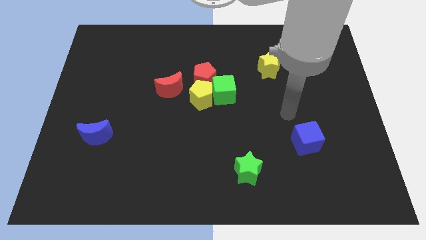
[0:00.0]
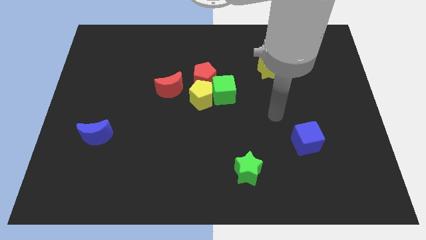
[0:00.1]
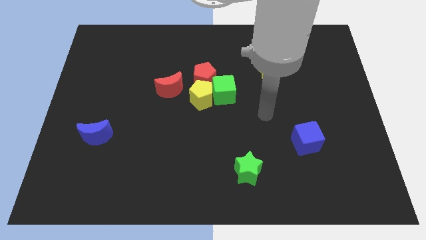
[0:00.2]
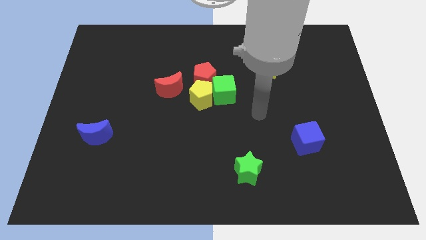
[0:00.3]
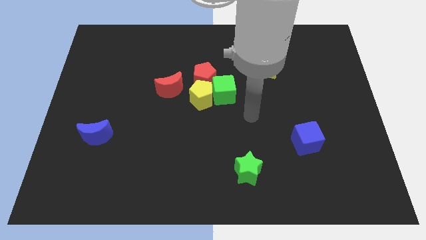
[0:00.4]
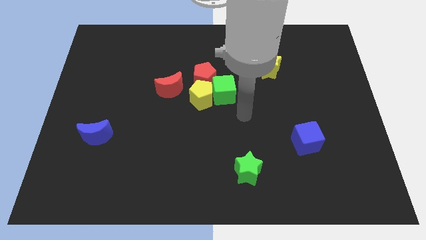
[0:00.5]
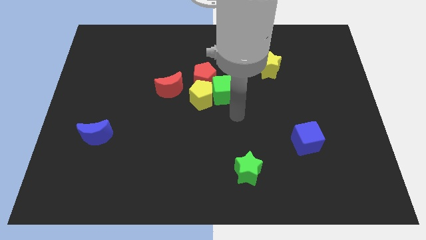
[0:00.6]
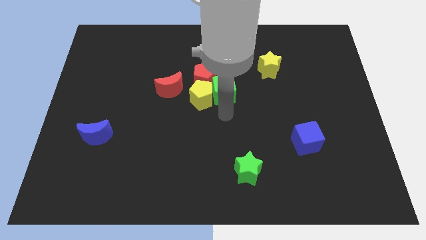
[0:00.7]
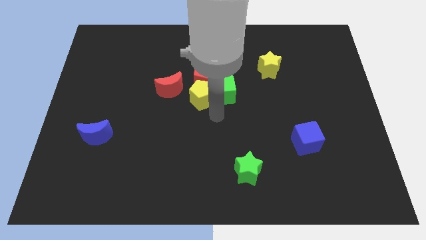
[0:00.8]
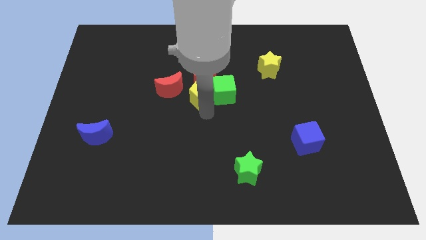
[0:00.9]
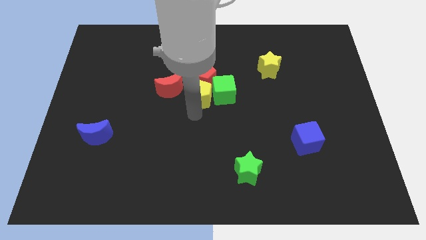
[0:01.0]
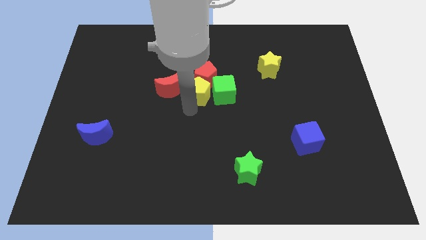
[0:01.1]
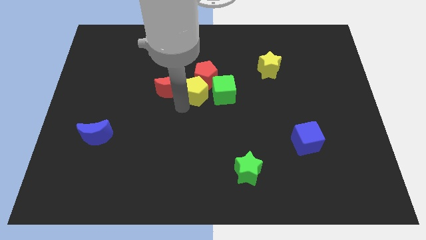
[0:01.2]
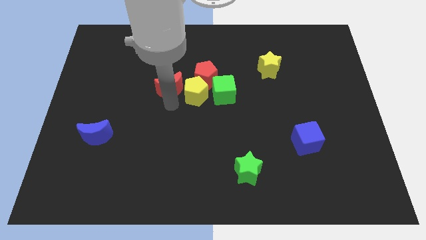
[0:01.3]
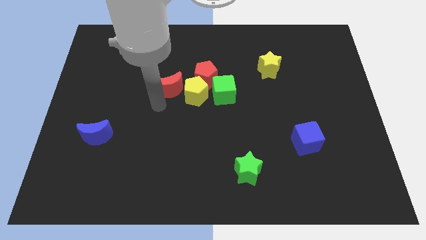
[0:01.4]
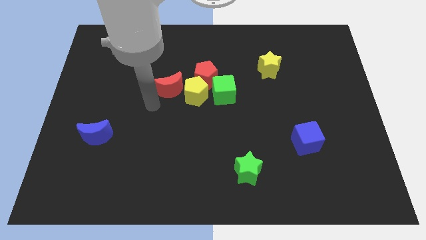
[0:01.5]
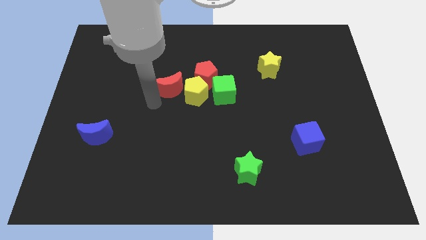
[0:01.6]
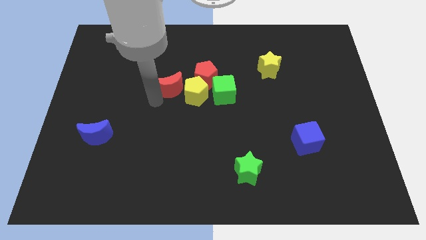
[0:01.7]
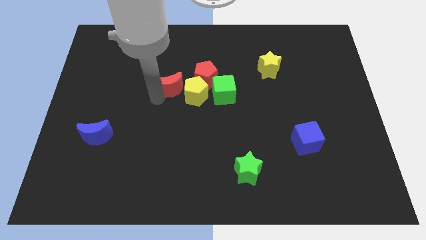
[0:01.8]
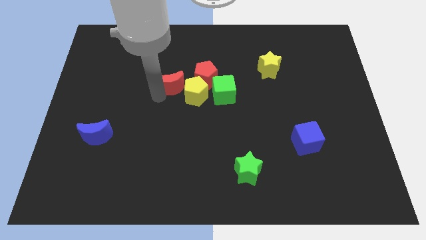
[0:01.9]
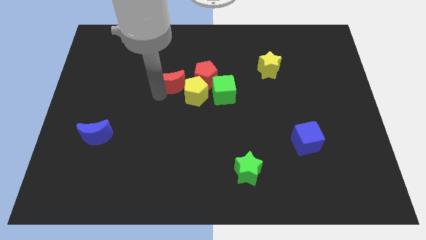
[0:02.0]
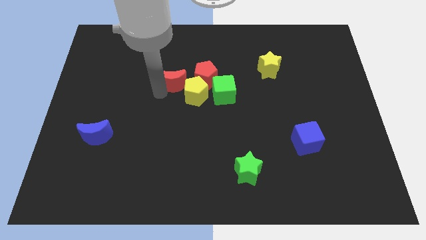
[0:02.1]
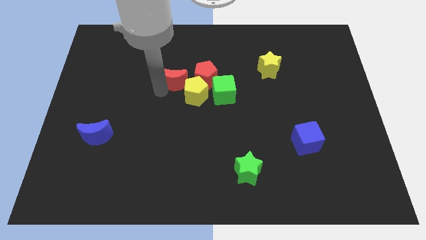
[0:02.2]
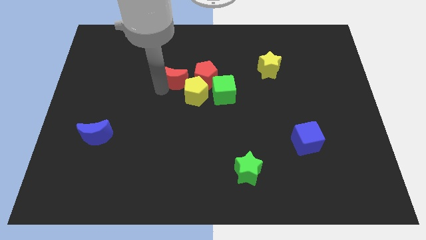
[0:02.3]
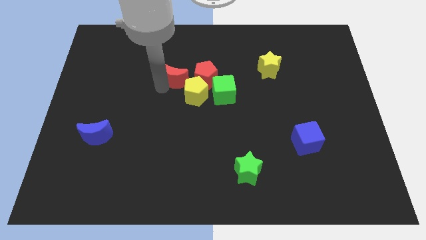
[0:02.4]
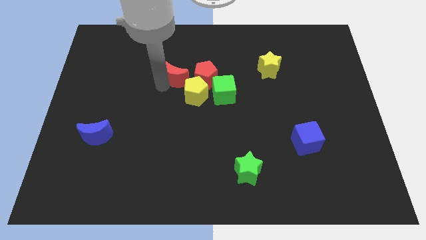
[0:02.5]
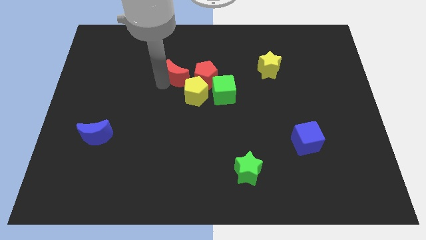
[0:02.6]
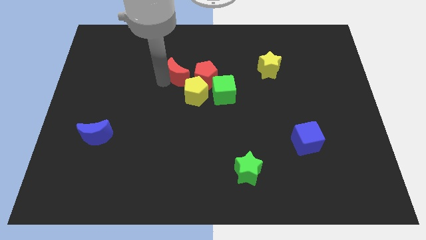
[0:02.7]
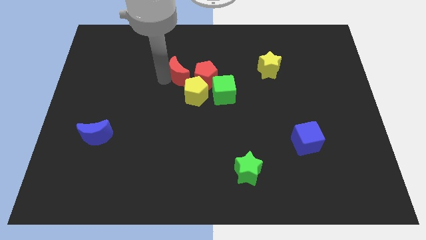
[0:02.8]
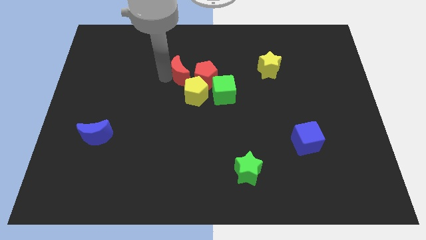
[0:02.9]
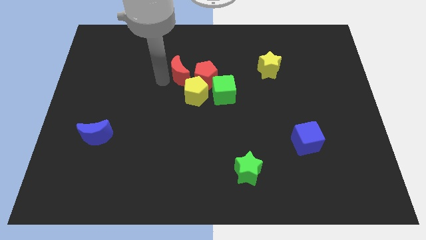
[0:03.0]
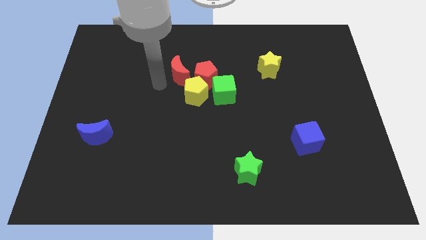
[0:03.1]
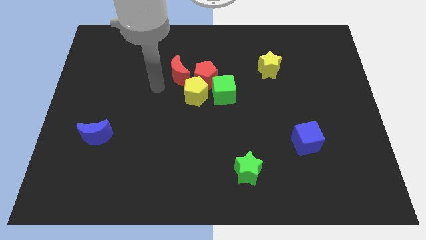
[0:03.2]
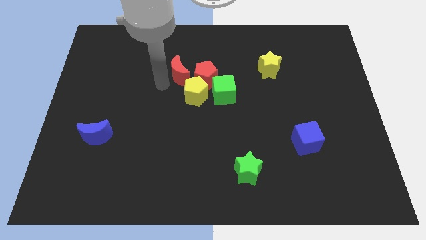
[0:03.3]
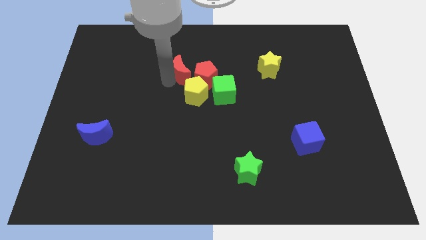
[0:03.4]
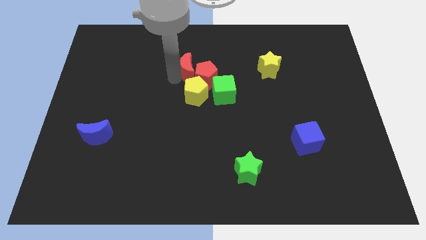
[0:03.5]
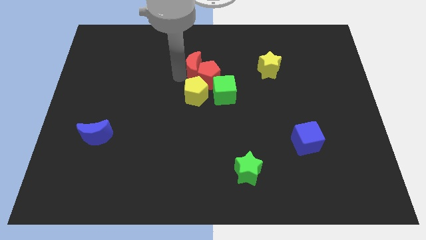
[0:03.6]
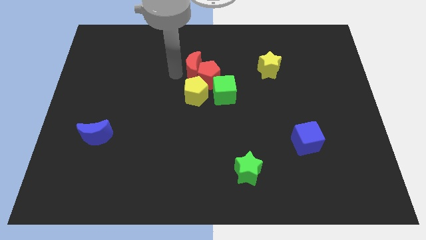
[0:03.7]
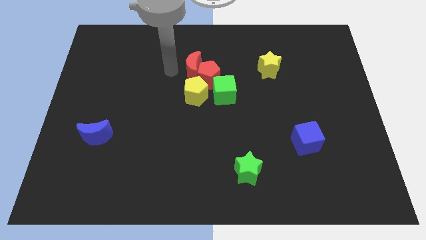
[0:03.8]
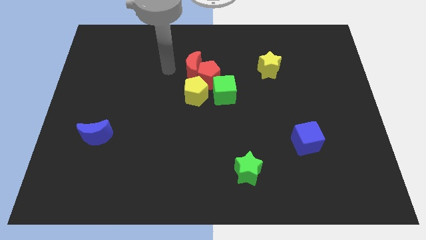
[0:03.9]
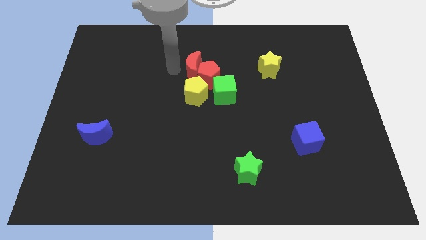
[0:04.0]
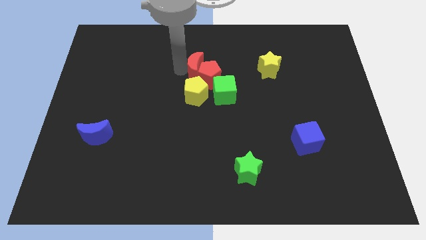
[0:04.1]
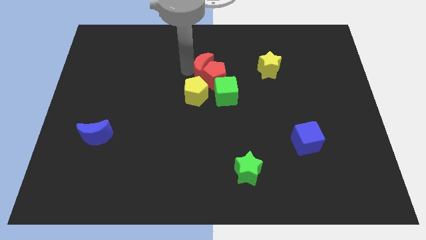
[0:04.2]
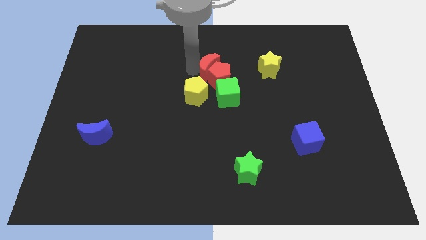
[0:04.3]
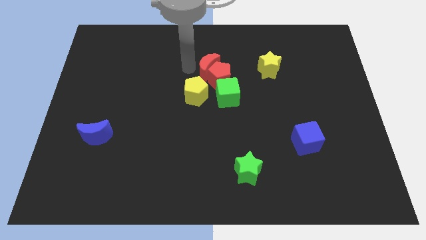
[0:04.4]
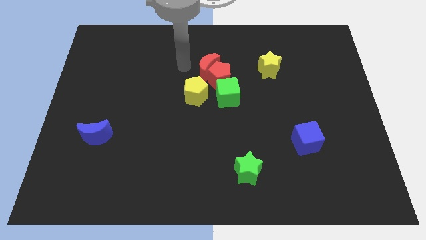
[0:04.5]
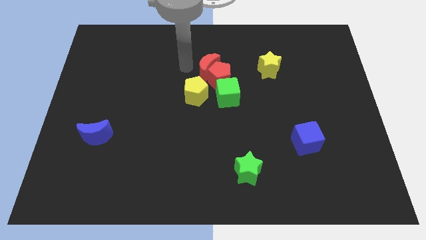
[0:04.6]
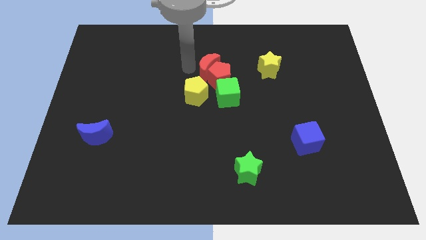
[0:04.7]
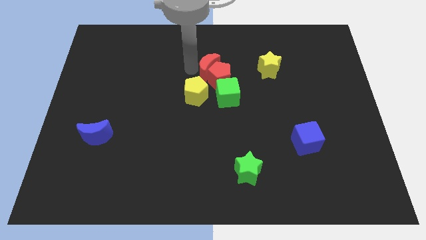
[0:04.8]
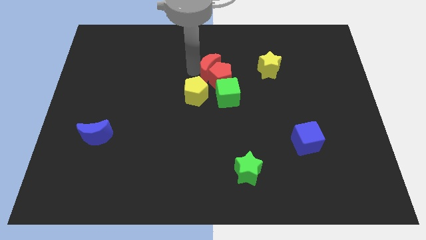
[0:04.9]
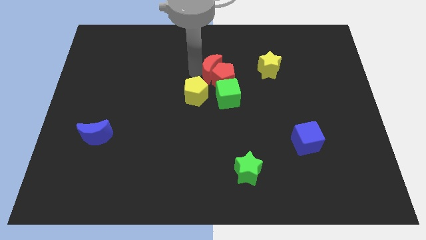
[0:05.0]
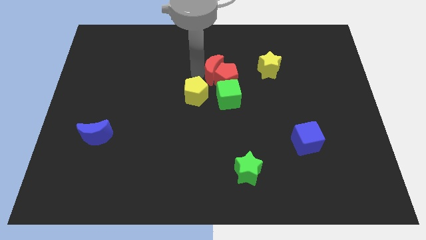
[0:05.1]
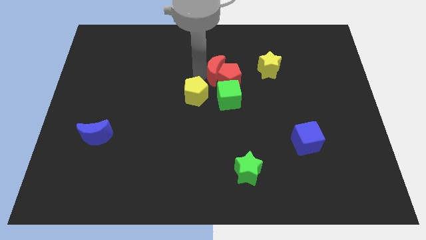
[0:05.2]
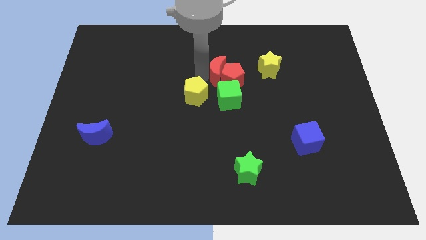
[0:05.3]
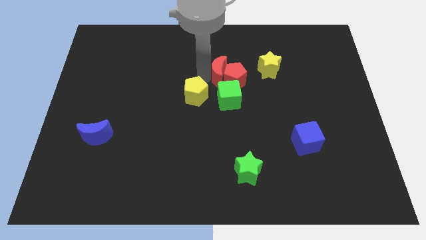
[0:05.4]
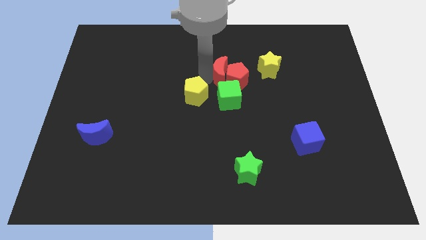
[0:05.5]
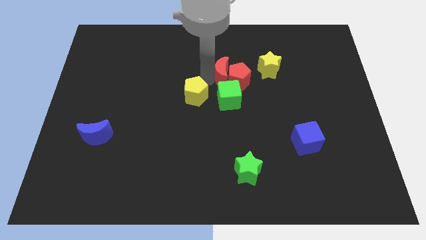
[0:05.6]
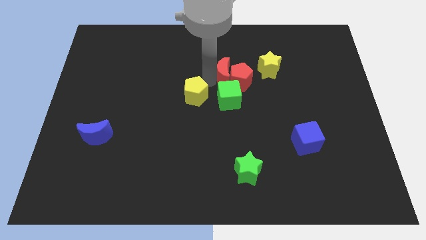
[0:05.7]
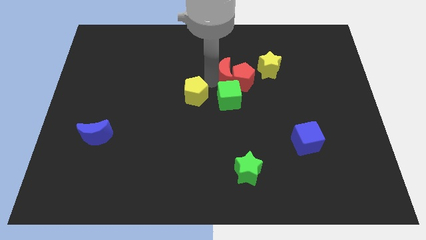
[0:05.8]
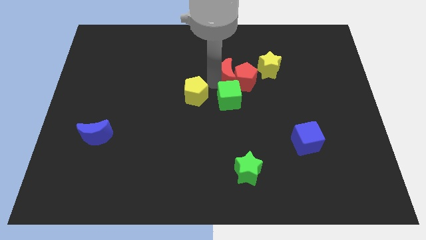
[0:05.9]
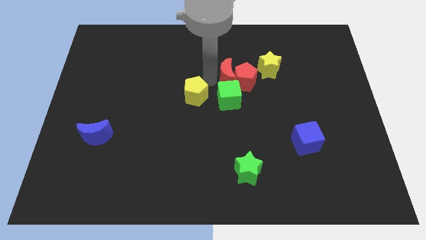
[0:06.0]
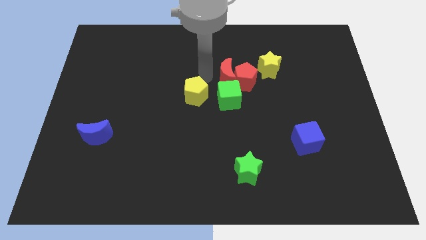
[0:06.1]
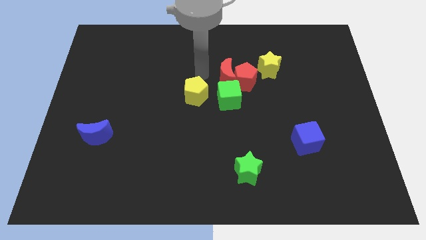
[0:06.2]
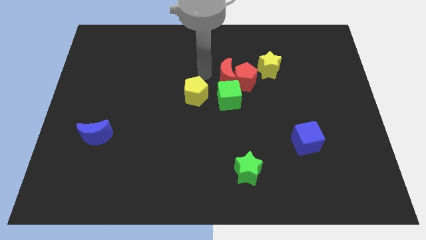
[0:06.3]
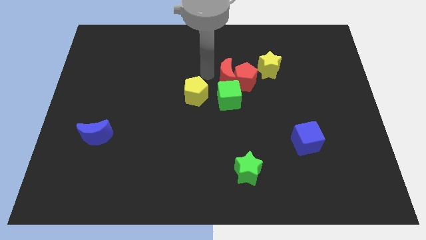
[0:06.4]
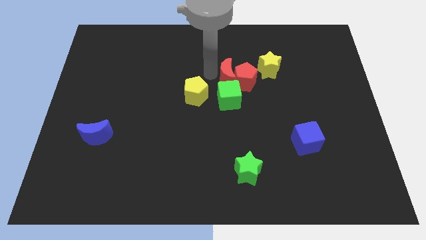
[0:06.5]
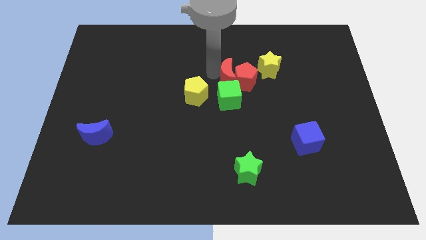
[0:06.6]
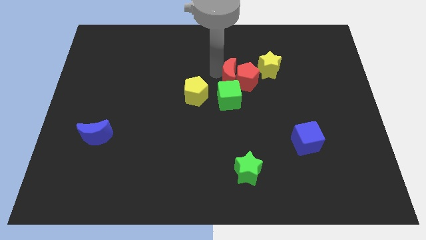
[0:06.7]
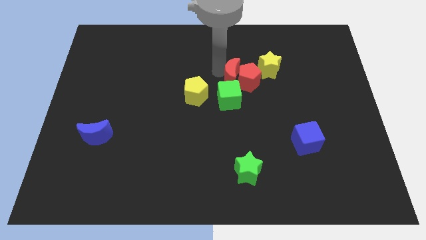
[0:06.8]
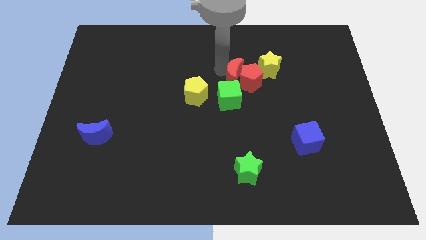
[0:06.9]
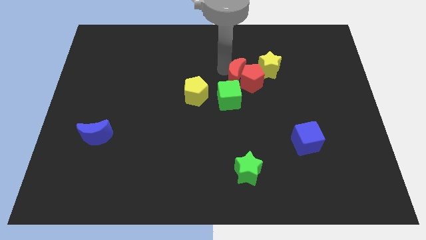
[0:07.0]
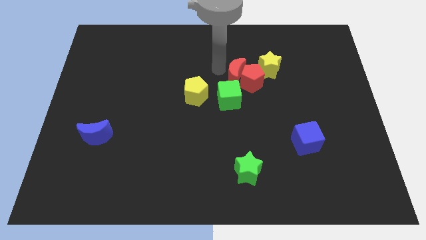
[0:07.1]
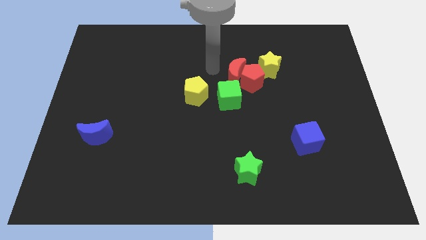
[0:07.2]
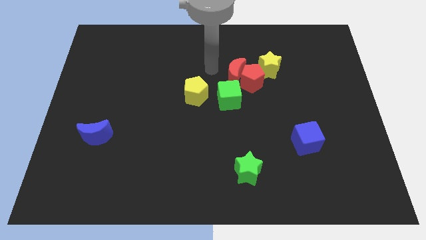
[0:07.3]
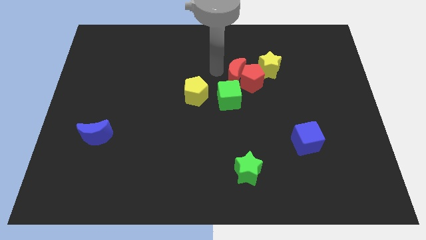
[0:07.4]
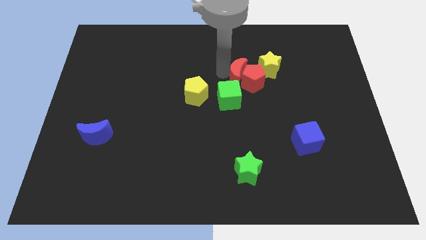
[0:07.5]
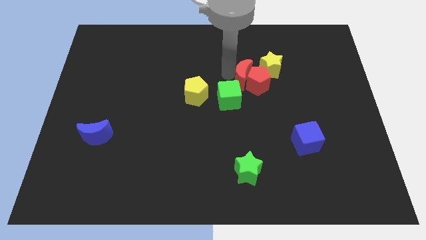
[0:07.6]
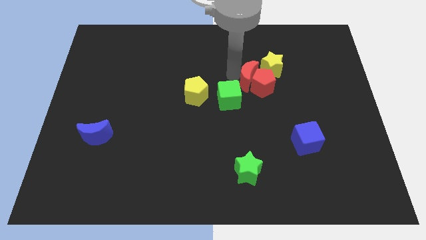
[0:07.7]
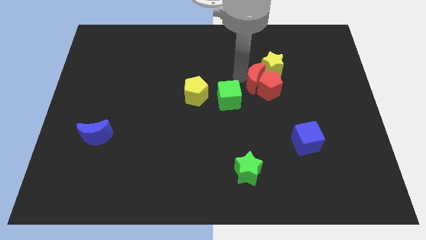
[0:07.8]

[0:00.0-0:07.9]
push the red moon right

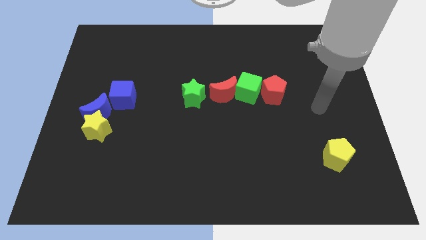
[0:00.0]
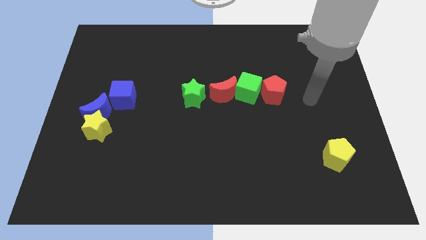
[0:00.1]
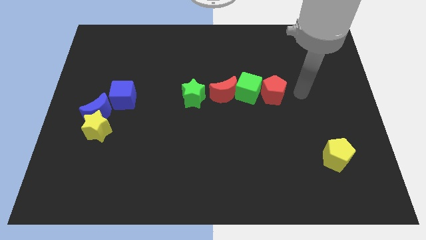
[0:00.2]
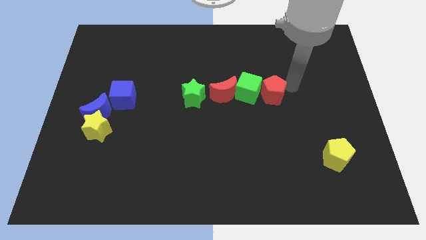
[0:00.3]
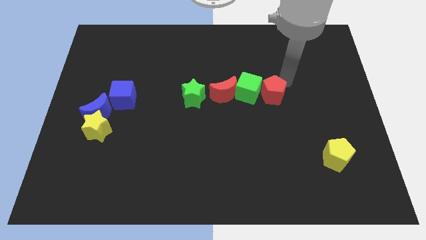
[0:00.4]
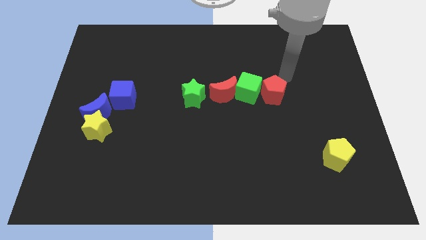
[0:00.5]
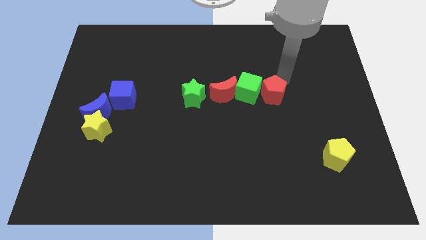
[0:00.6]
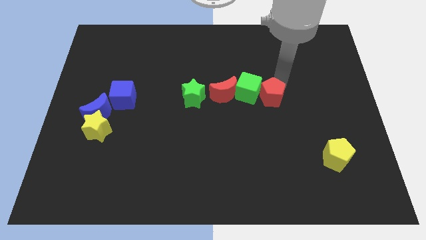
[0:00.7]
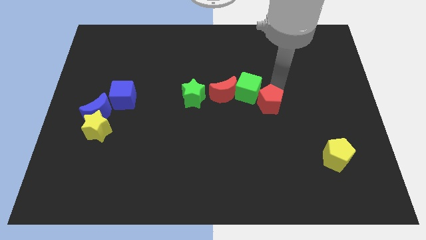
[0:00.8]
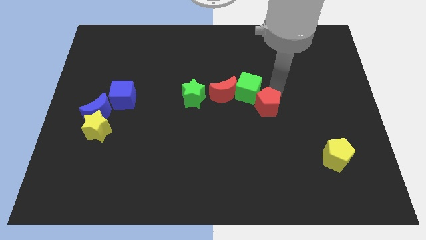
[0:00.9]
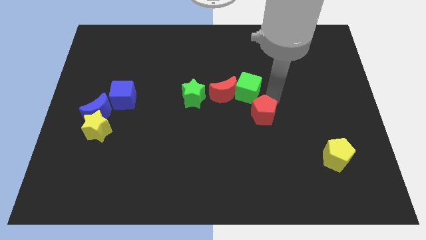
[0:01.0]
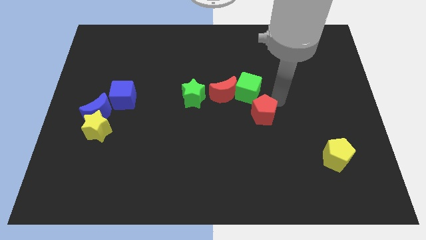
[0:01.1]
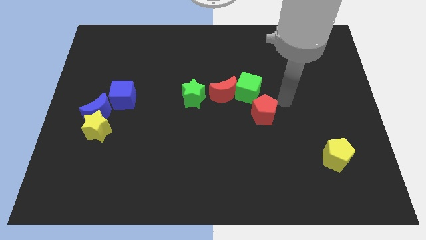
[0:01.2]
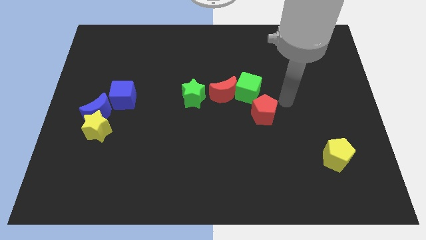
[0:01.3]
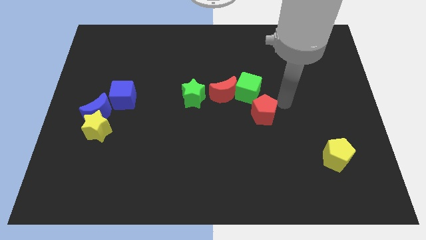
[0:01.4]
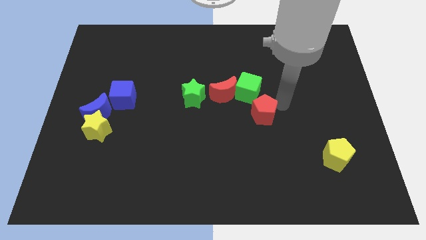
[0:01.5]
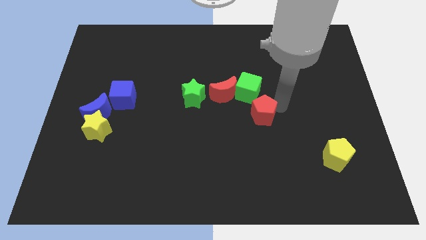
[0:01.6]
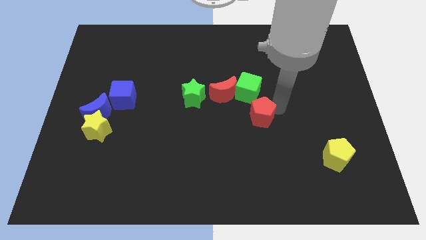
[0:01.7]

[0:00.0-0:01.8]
slide the red pentagon a little bit diagonally down and to the left
